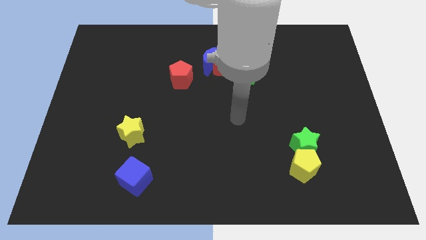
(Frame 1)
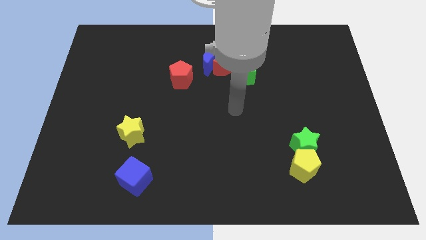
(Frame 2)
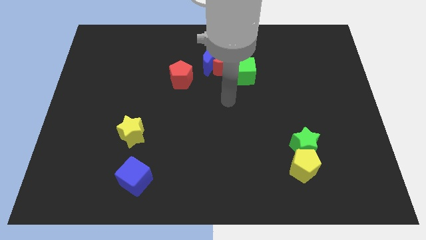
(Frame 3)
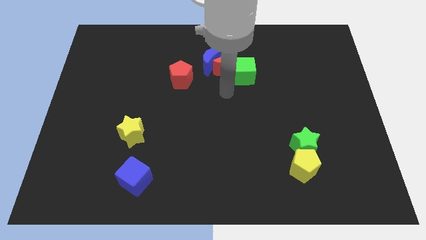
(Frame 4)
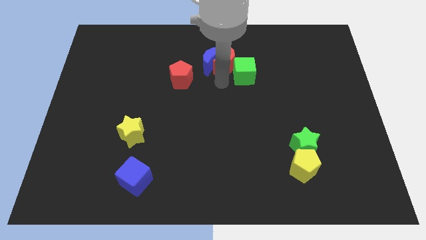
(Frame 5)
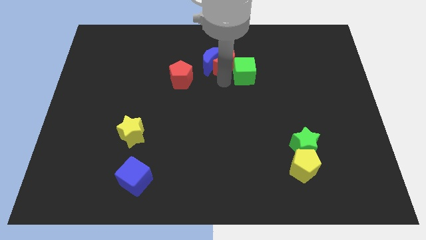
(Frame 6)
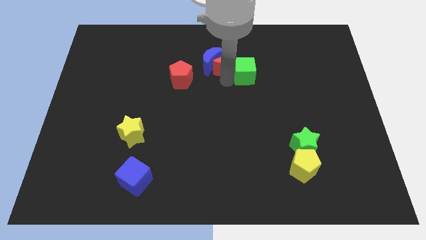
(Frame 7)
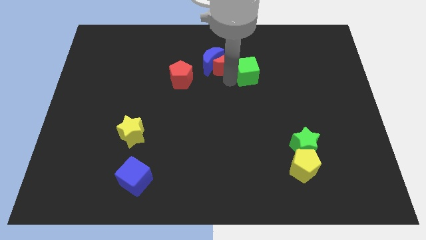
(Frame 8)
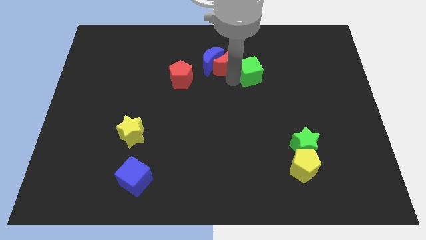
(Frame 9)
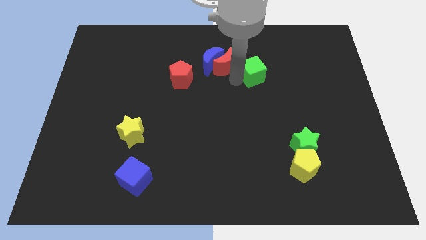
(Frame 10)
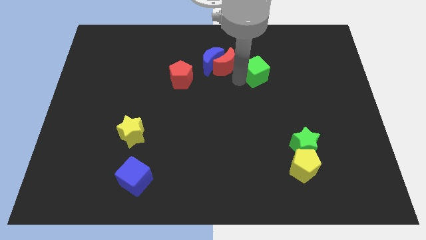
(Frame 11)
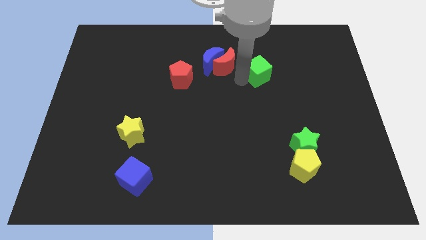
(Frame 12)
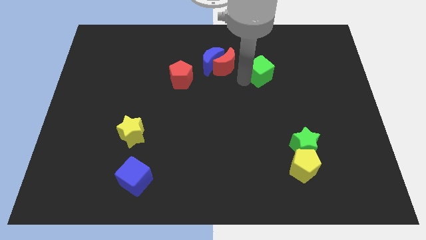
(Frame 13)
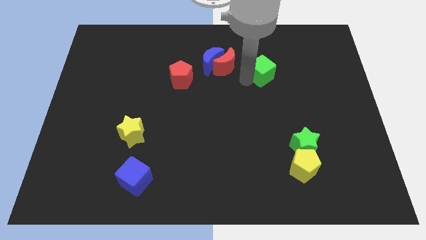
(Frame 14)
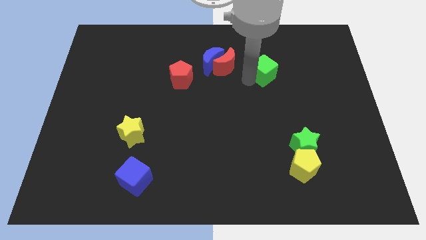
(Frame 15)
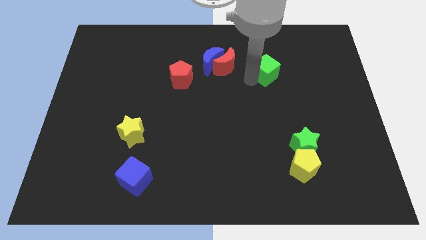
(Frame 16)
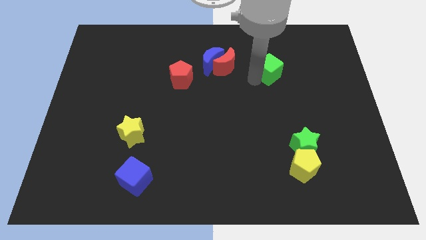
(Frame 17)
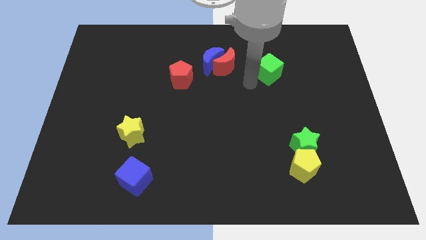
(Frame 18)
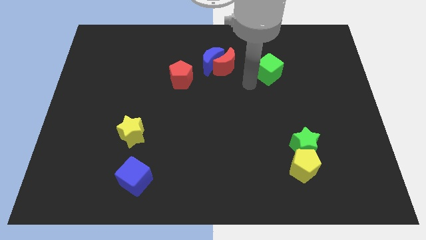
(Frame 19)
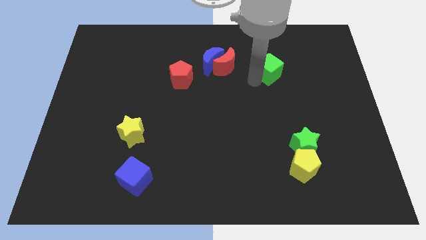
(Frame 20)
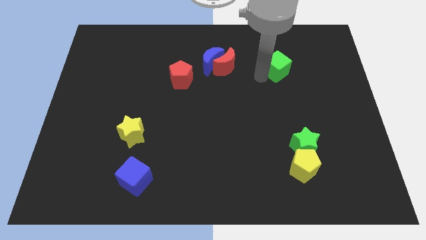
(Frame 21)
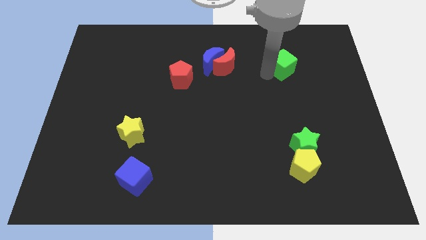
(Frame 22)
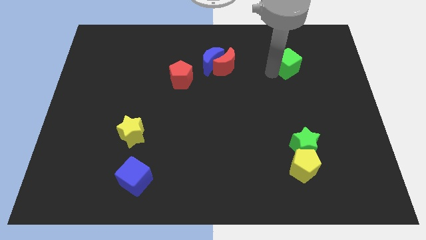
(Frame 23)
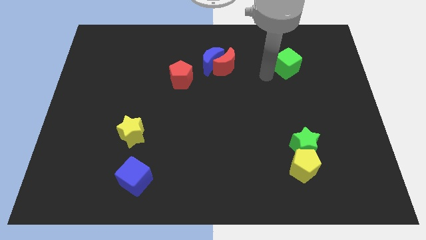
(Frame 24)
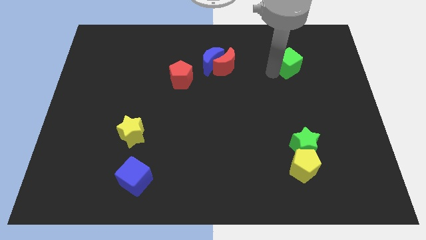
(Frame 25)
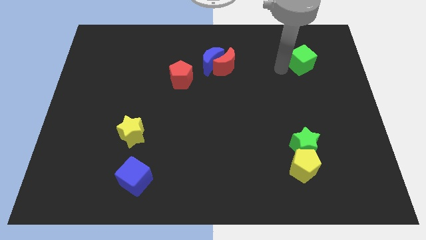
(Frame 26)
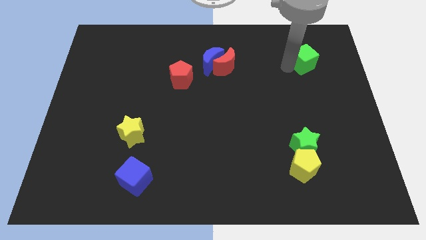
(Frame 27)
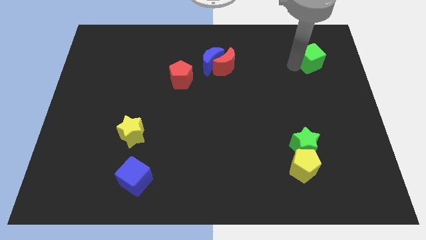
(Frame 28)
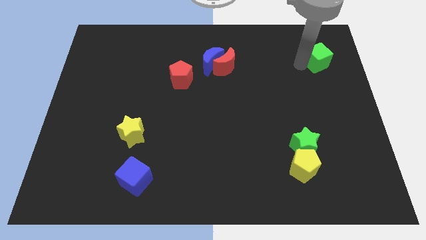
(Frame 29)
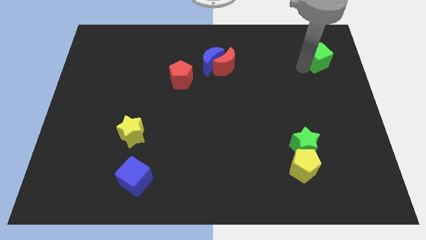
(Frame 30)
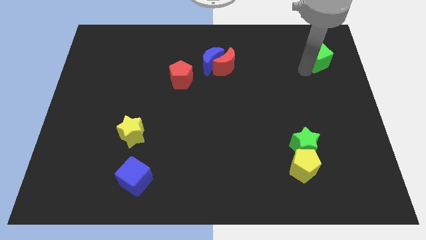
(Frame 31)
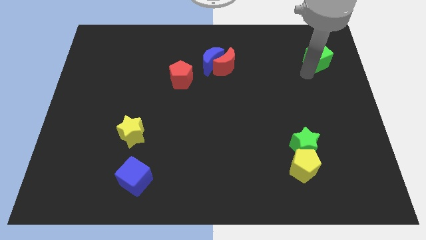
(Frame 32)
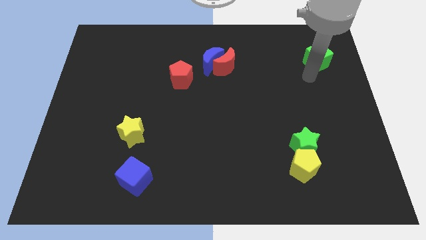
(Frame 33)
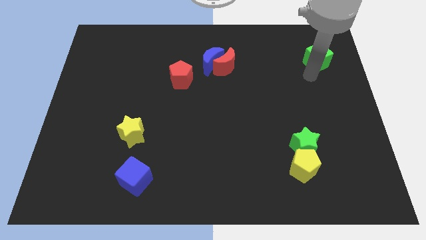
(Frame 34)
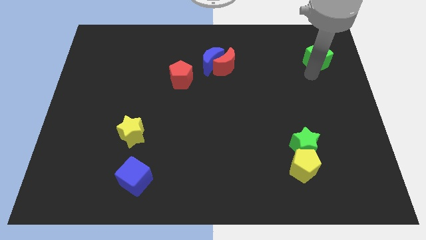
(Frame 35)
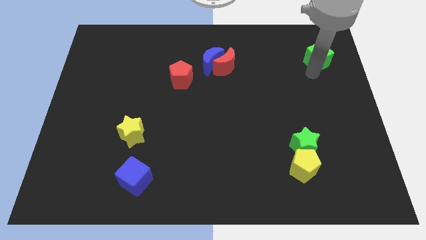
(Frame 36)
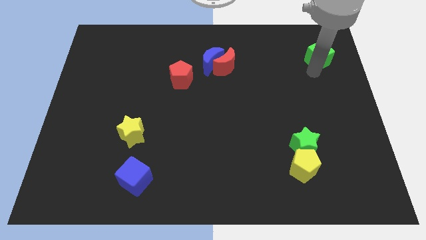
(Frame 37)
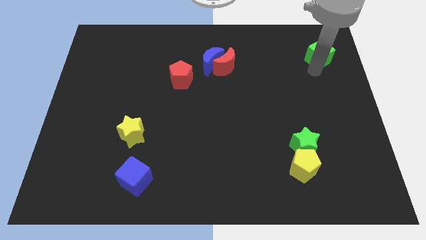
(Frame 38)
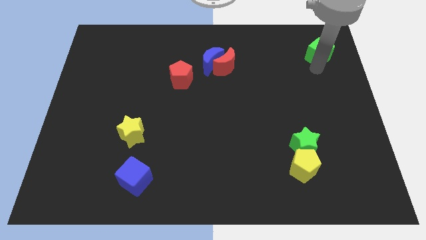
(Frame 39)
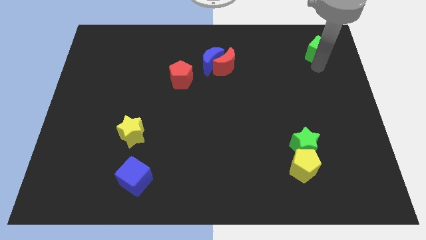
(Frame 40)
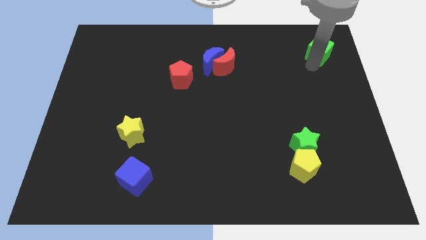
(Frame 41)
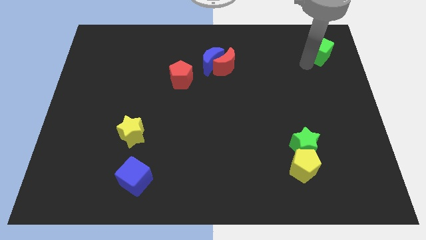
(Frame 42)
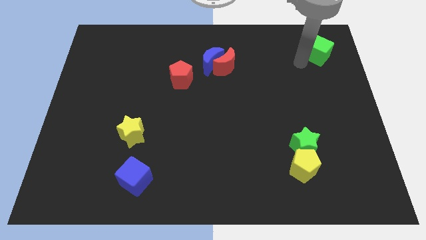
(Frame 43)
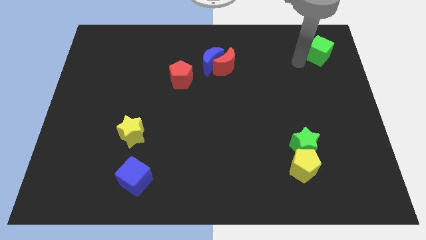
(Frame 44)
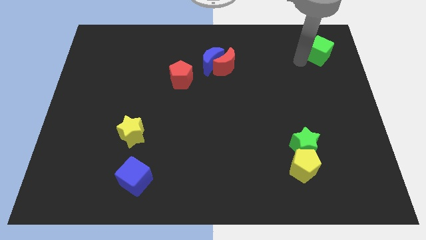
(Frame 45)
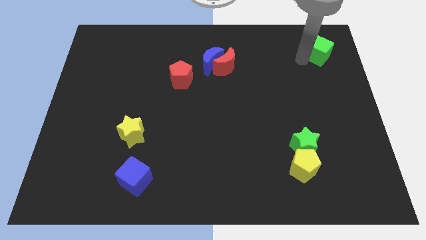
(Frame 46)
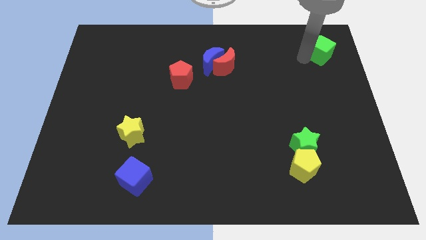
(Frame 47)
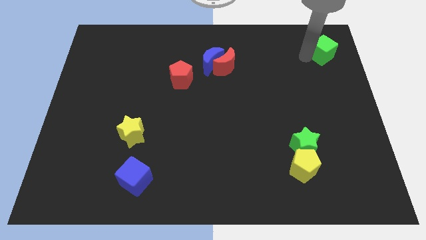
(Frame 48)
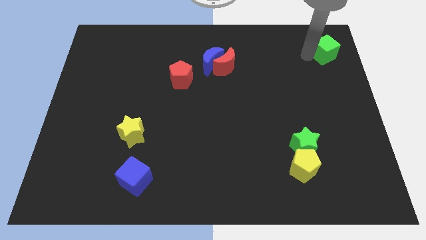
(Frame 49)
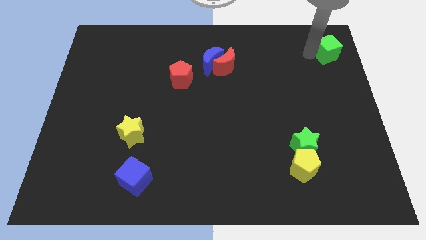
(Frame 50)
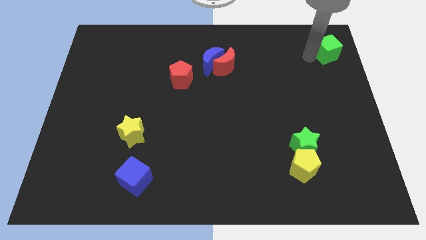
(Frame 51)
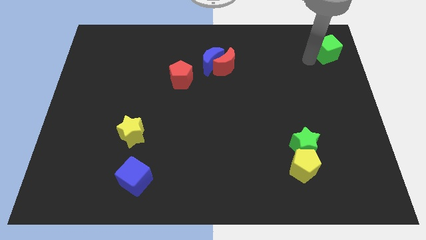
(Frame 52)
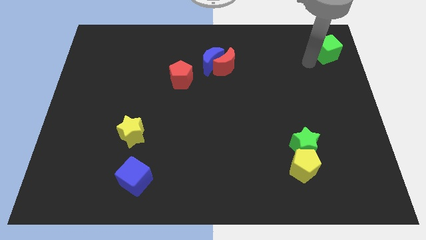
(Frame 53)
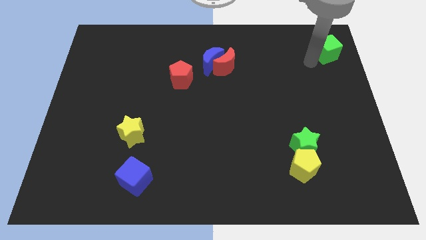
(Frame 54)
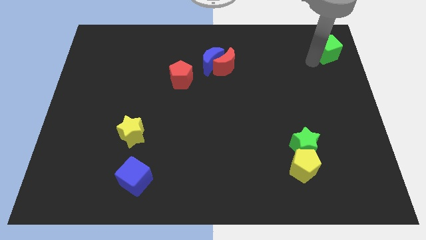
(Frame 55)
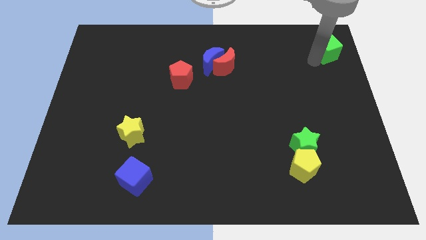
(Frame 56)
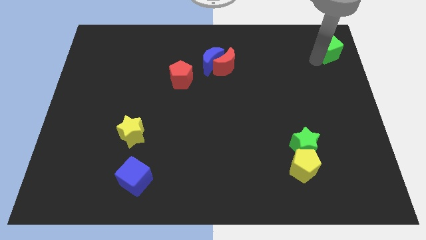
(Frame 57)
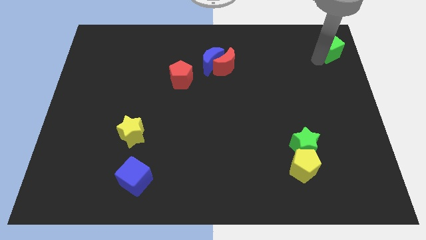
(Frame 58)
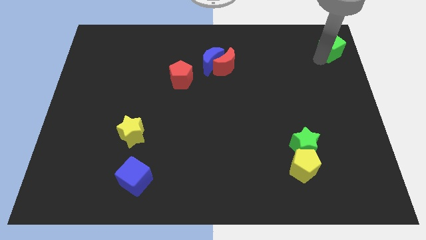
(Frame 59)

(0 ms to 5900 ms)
move the green cube to the top right corner

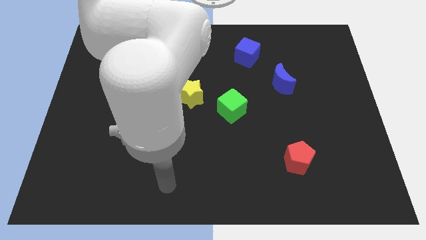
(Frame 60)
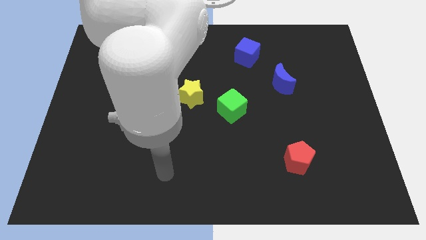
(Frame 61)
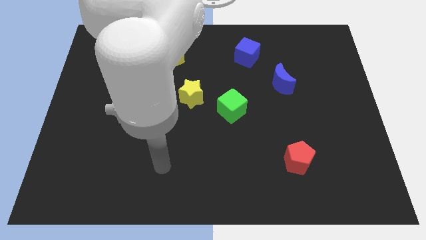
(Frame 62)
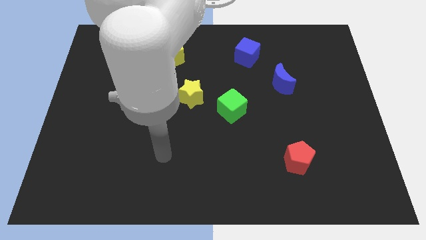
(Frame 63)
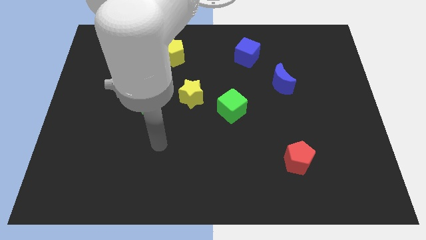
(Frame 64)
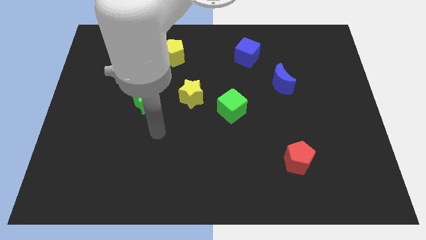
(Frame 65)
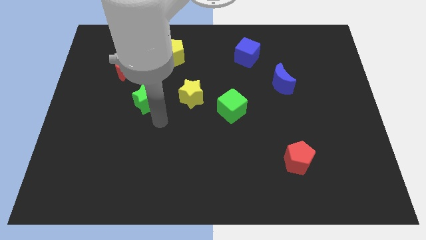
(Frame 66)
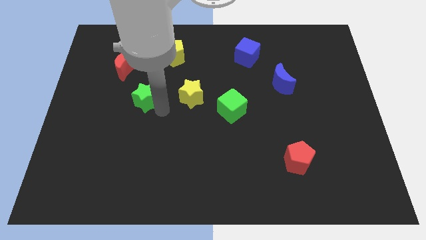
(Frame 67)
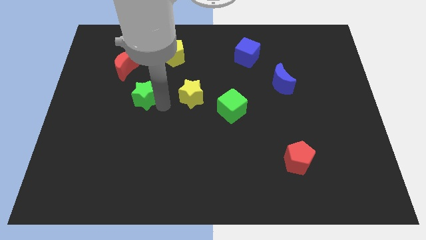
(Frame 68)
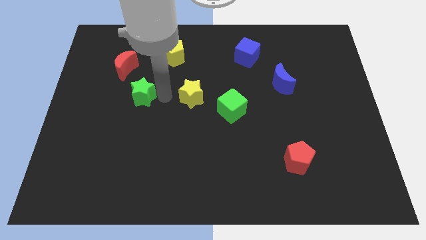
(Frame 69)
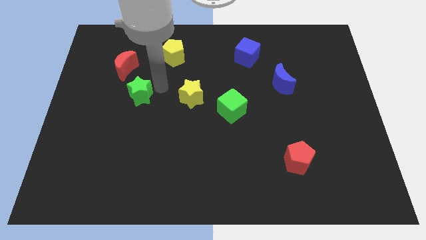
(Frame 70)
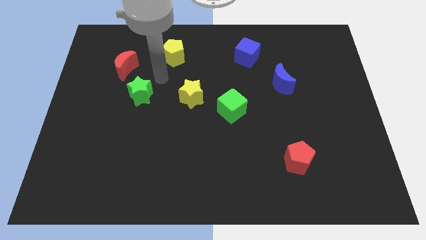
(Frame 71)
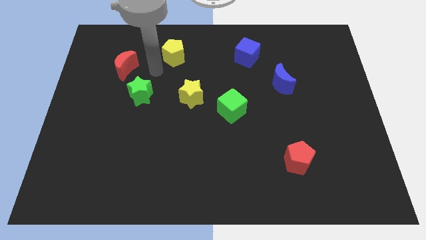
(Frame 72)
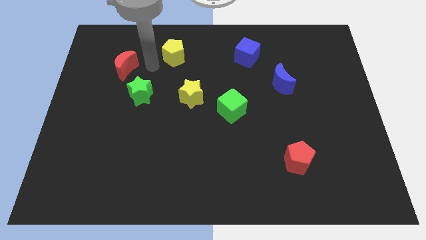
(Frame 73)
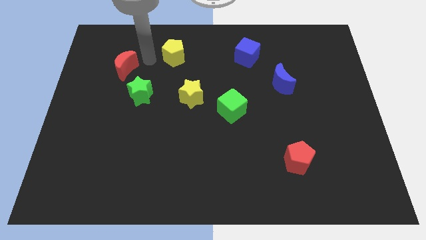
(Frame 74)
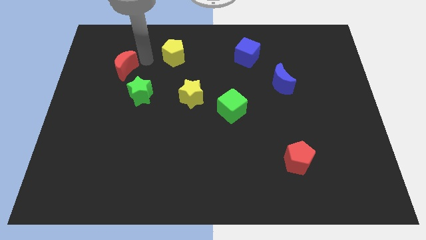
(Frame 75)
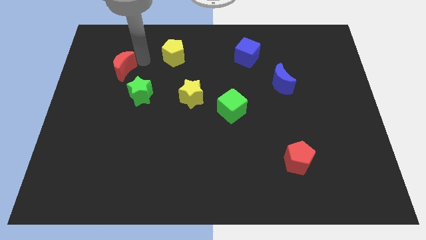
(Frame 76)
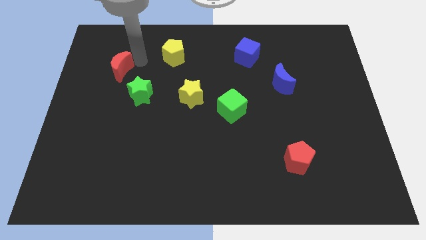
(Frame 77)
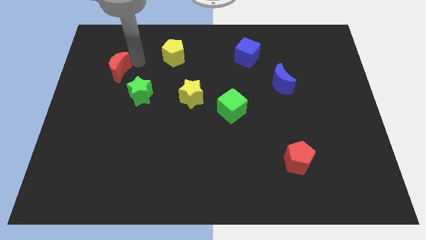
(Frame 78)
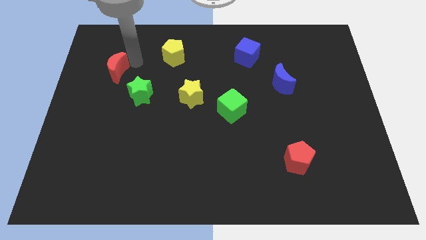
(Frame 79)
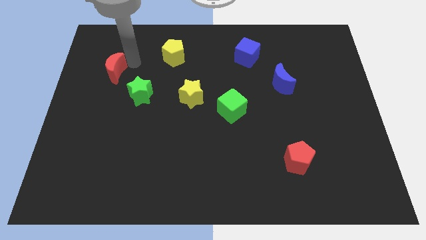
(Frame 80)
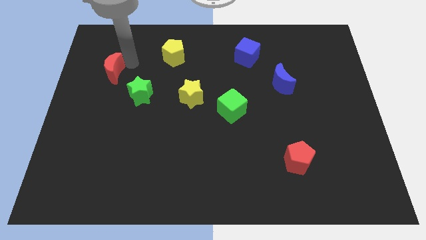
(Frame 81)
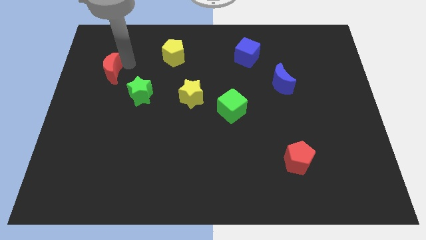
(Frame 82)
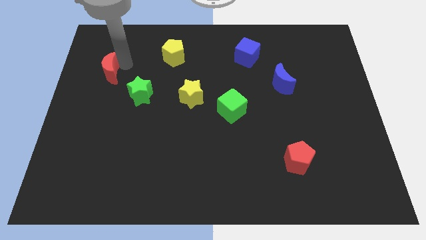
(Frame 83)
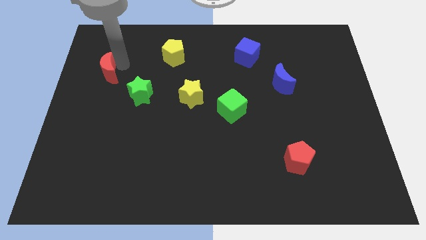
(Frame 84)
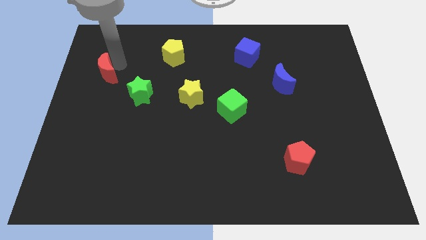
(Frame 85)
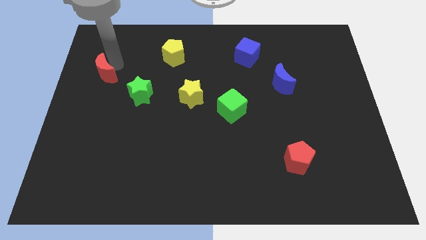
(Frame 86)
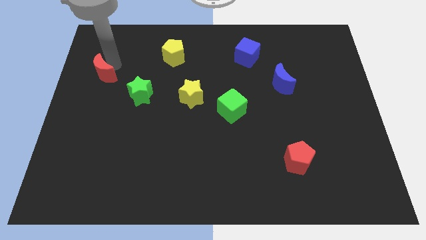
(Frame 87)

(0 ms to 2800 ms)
push the red moon to the left side
